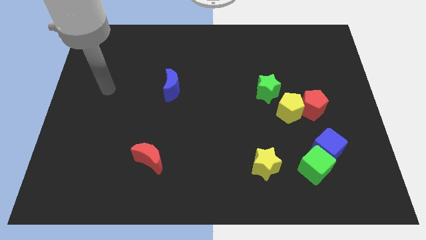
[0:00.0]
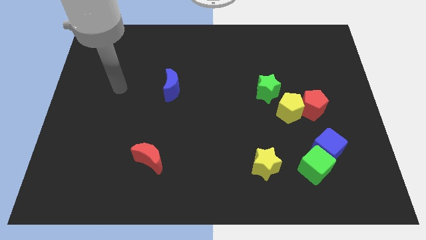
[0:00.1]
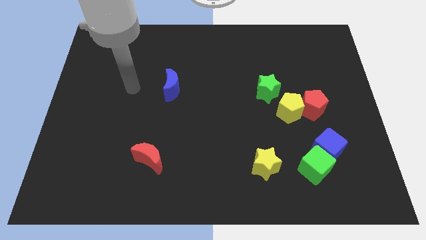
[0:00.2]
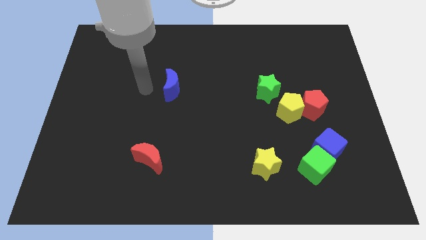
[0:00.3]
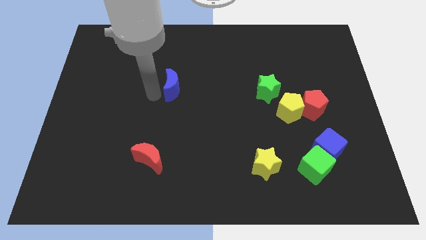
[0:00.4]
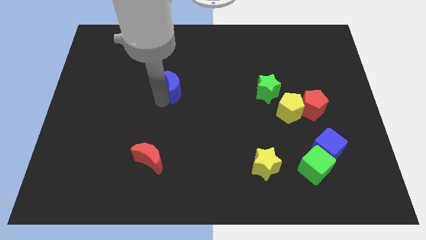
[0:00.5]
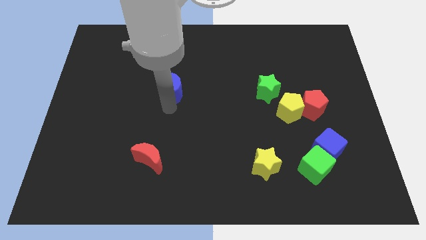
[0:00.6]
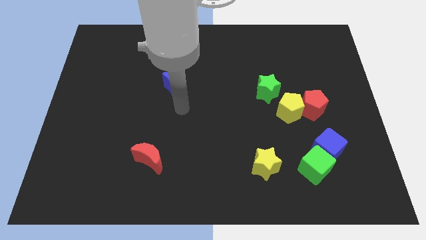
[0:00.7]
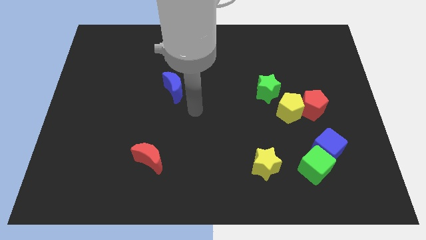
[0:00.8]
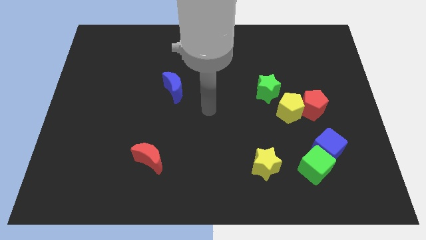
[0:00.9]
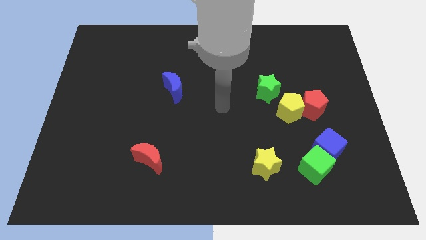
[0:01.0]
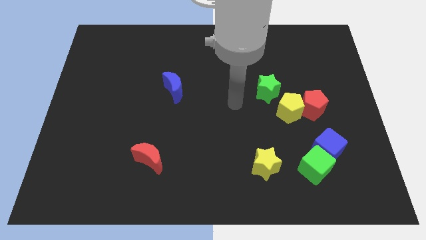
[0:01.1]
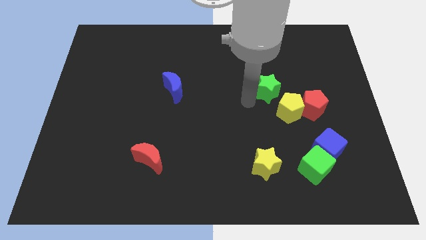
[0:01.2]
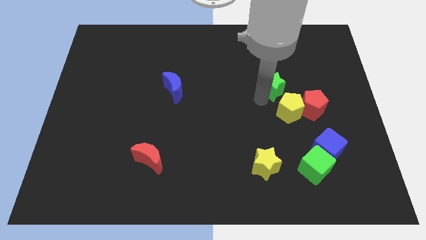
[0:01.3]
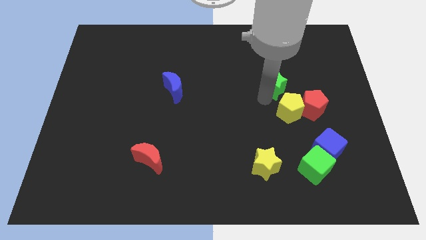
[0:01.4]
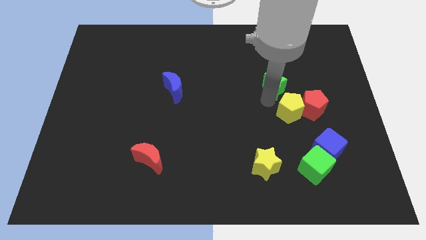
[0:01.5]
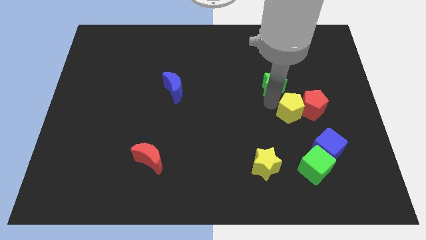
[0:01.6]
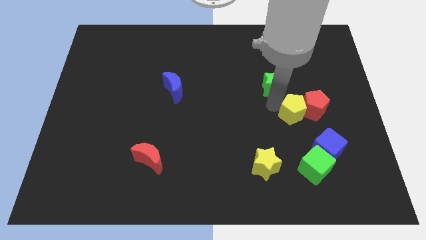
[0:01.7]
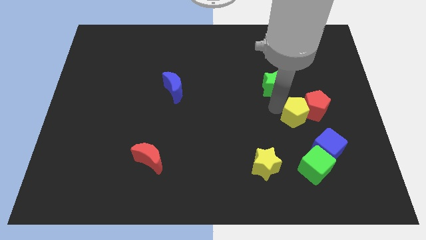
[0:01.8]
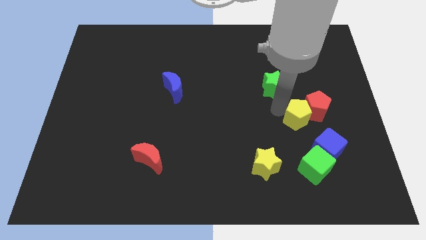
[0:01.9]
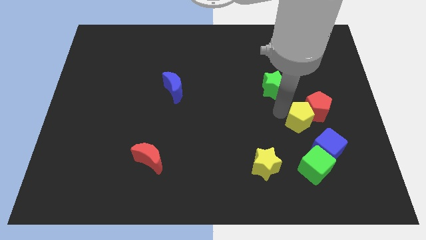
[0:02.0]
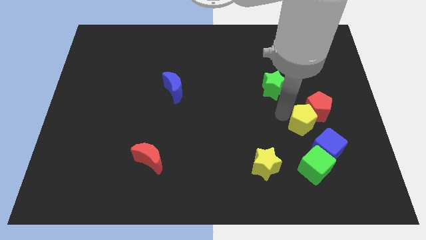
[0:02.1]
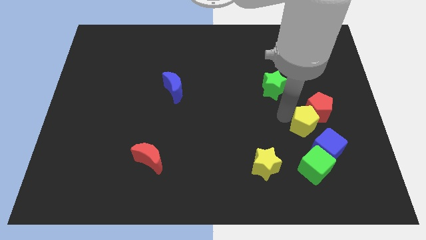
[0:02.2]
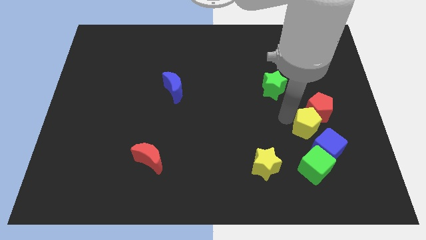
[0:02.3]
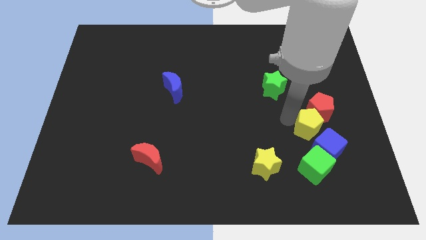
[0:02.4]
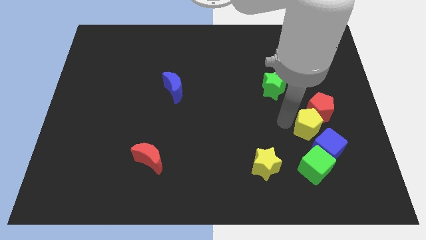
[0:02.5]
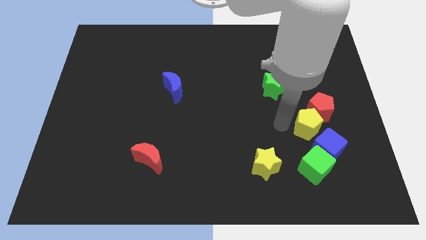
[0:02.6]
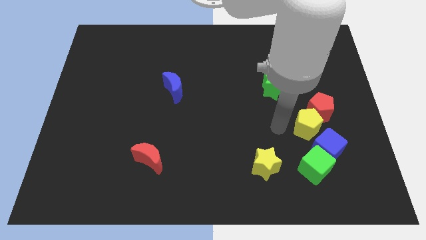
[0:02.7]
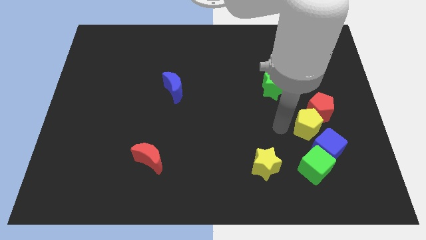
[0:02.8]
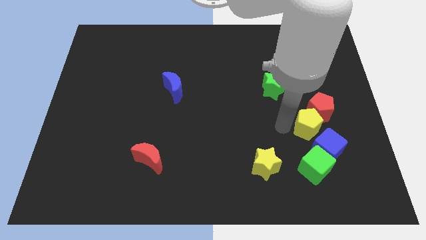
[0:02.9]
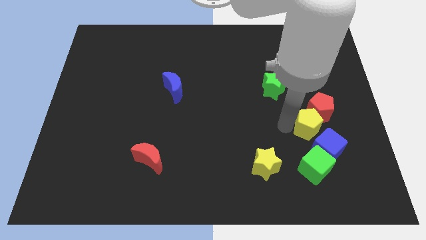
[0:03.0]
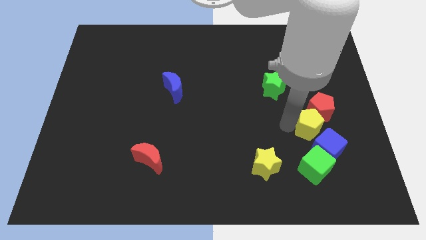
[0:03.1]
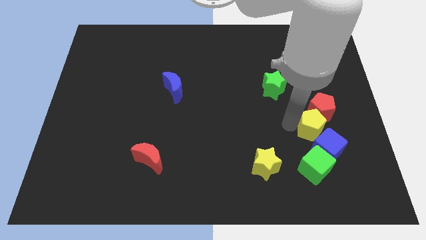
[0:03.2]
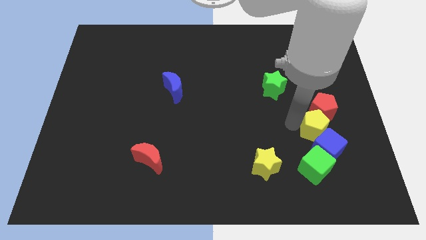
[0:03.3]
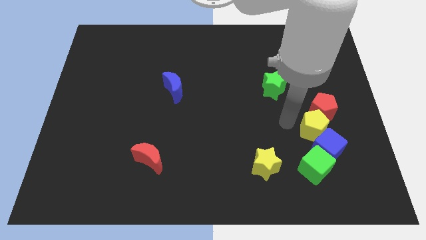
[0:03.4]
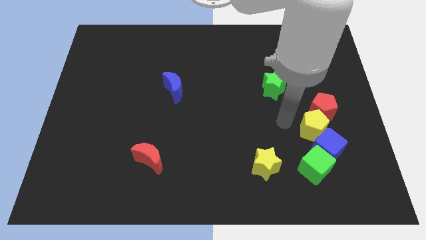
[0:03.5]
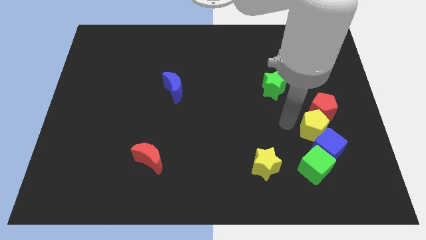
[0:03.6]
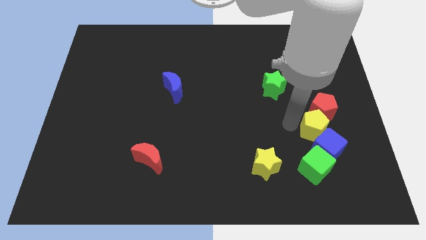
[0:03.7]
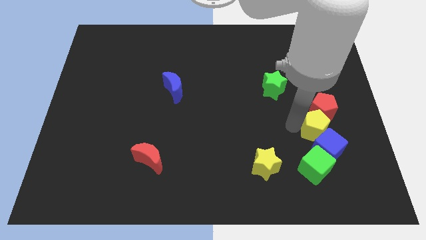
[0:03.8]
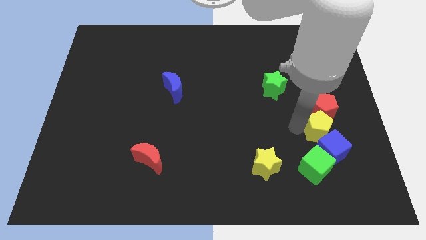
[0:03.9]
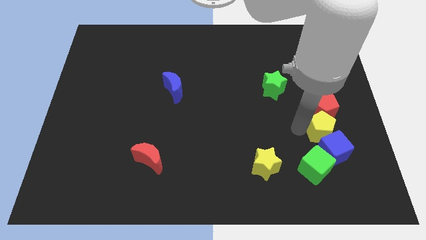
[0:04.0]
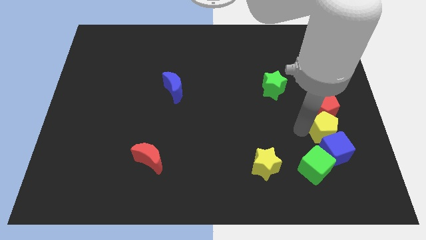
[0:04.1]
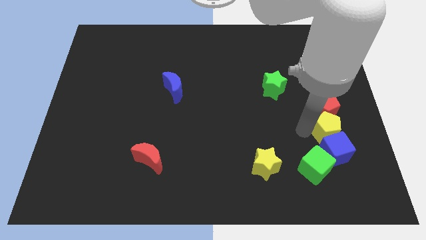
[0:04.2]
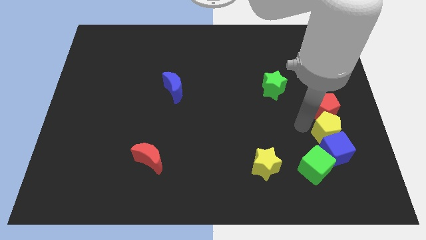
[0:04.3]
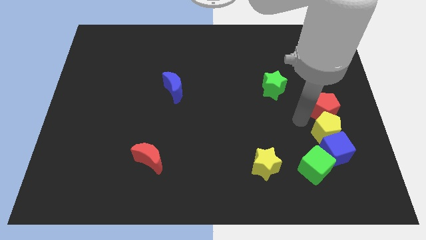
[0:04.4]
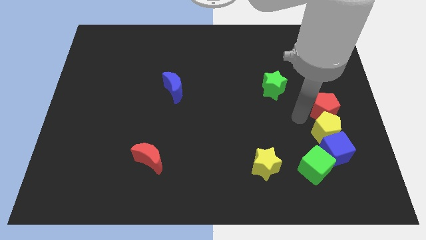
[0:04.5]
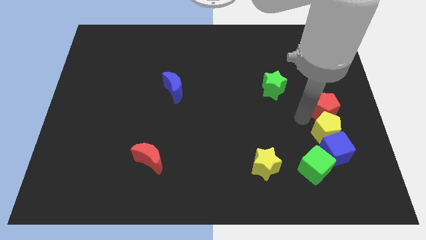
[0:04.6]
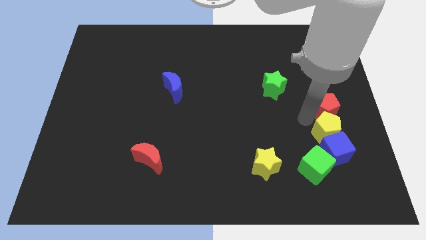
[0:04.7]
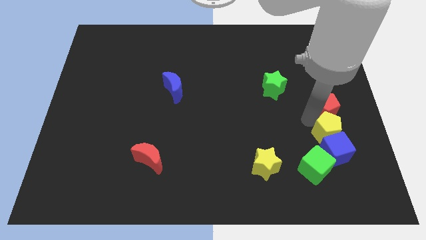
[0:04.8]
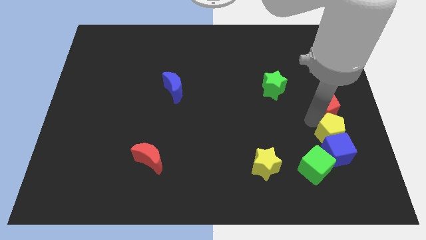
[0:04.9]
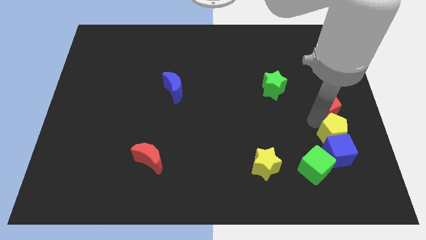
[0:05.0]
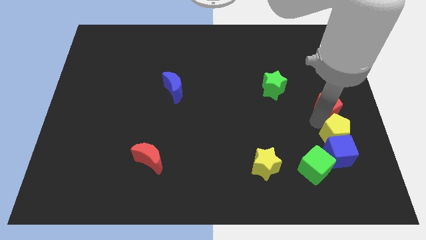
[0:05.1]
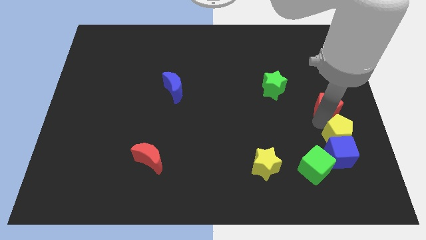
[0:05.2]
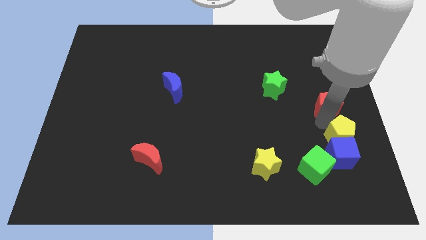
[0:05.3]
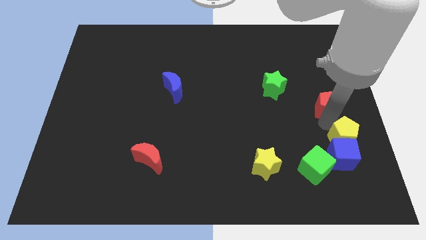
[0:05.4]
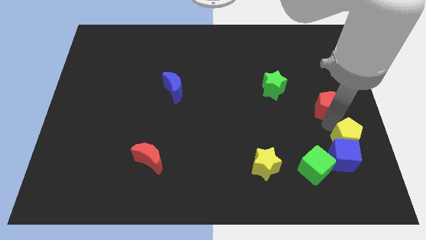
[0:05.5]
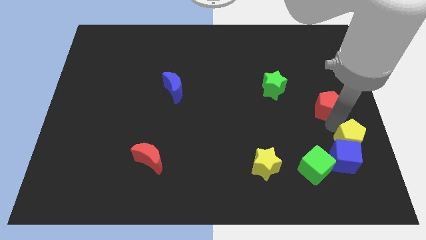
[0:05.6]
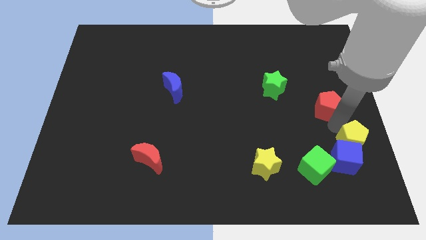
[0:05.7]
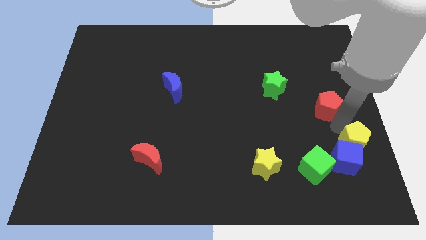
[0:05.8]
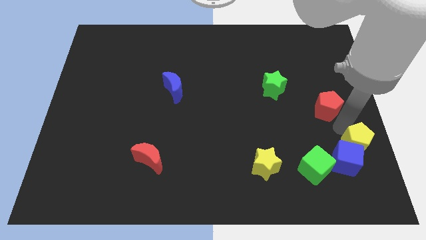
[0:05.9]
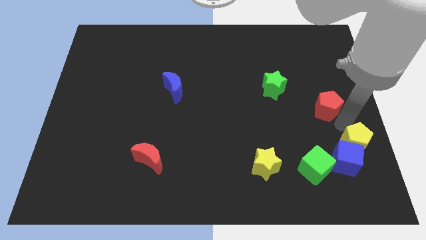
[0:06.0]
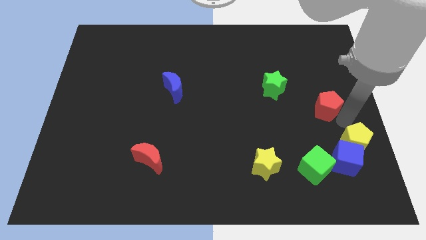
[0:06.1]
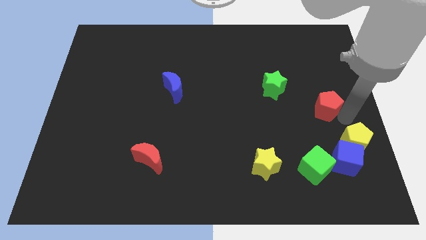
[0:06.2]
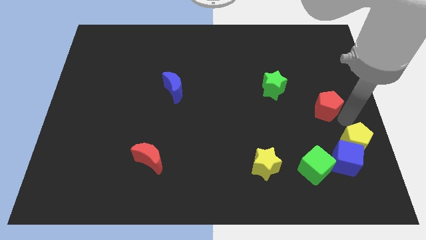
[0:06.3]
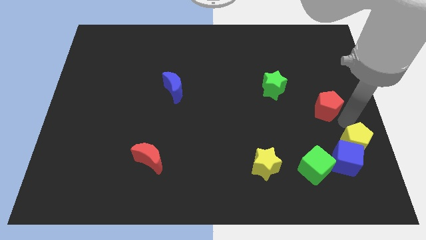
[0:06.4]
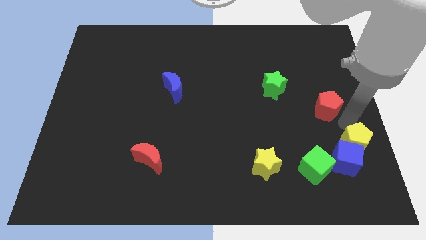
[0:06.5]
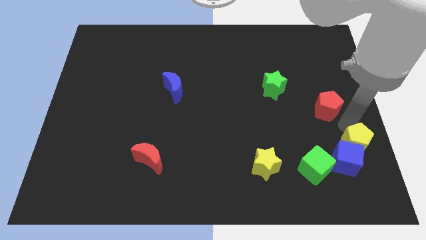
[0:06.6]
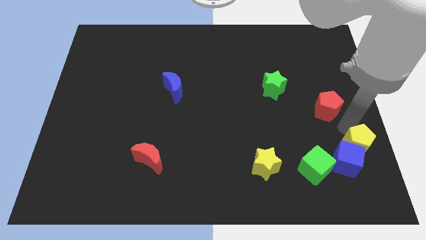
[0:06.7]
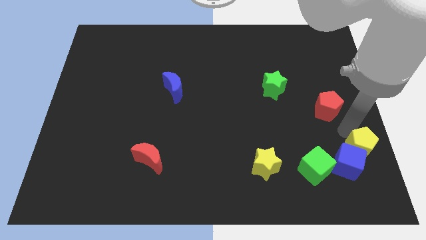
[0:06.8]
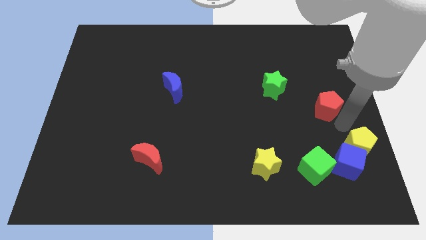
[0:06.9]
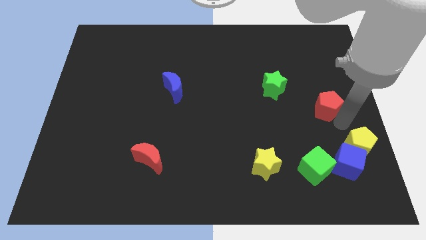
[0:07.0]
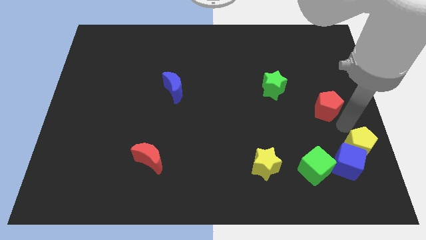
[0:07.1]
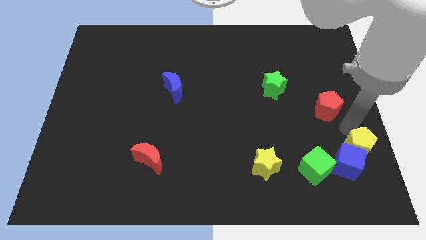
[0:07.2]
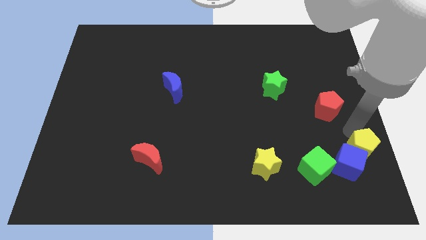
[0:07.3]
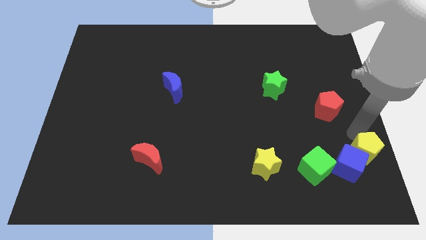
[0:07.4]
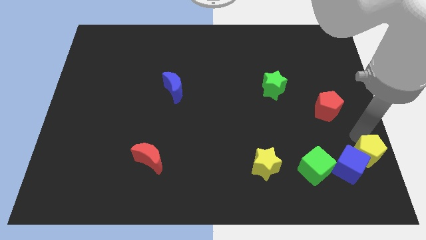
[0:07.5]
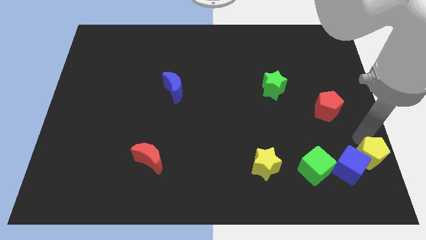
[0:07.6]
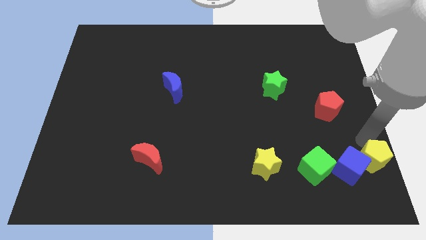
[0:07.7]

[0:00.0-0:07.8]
put the yellow pentagon to the bottom right of the board
